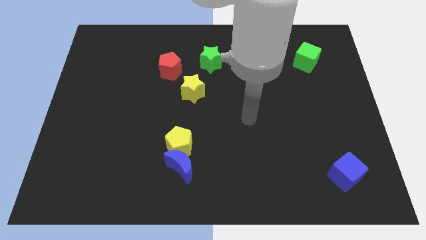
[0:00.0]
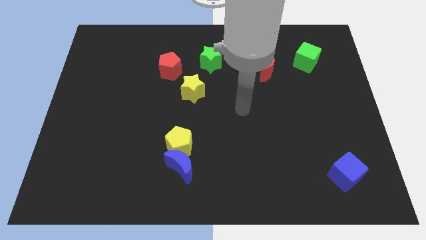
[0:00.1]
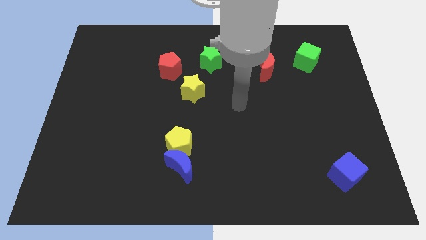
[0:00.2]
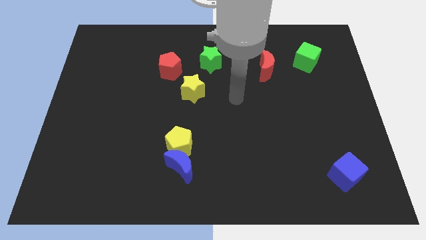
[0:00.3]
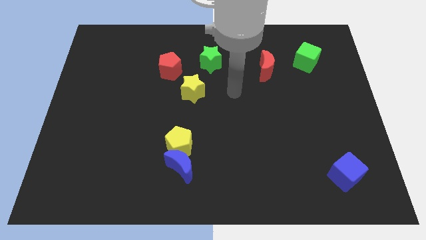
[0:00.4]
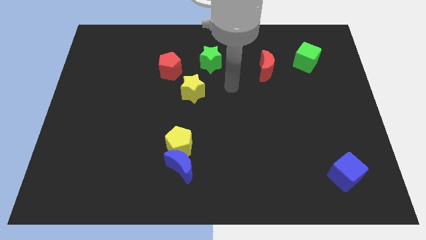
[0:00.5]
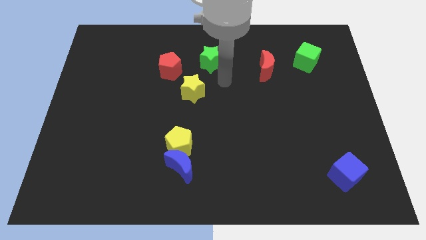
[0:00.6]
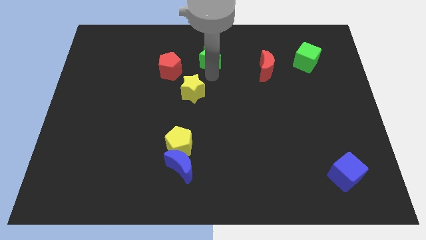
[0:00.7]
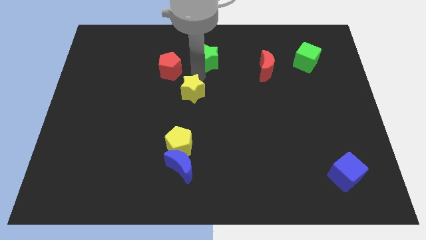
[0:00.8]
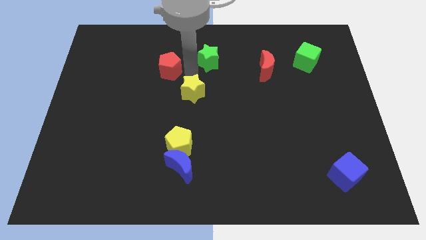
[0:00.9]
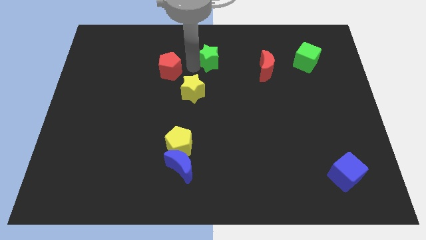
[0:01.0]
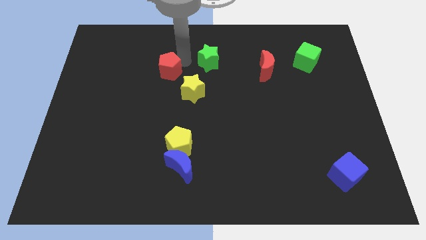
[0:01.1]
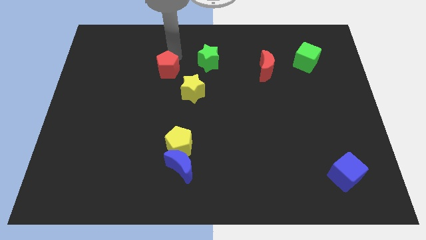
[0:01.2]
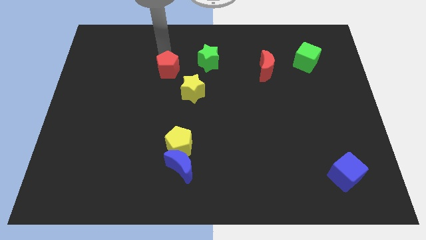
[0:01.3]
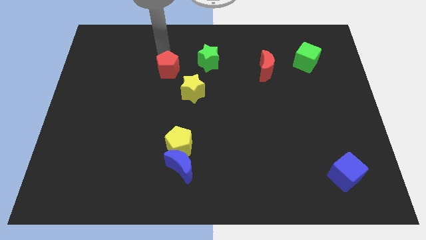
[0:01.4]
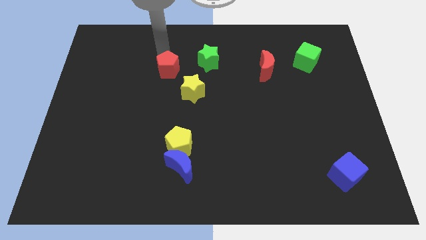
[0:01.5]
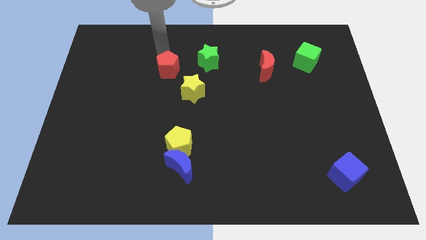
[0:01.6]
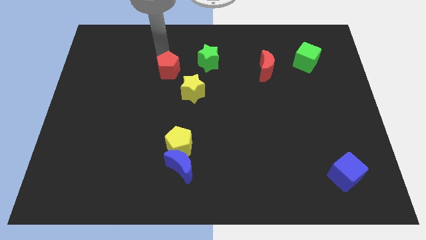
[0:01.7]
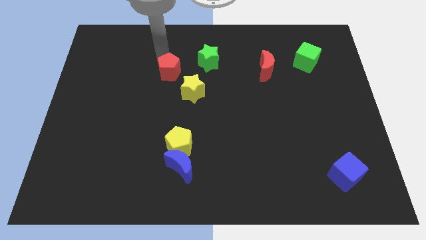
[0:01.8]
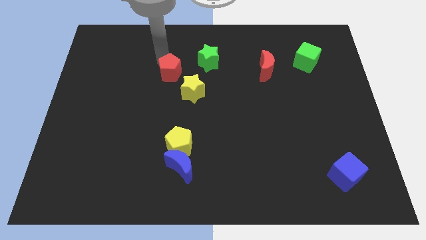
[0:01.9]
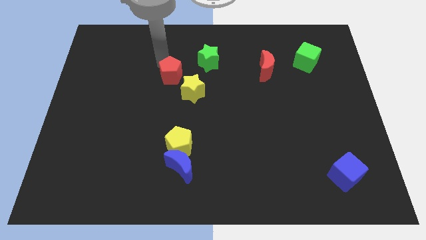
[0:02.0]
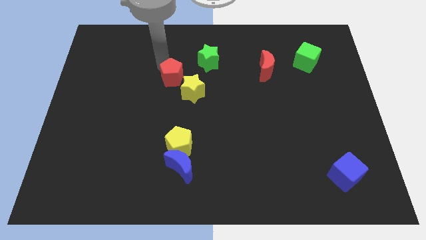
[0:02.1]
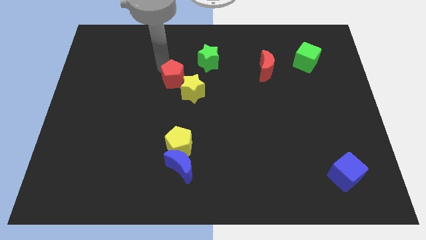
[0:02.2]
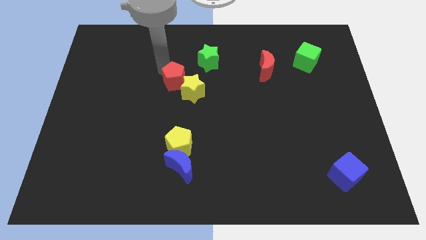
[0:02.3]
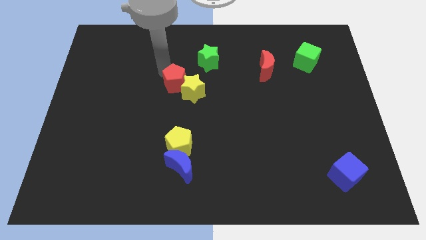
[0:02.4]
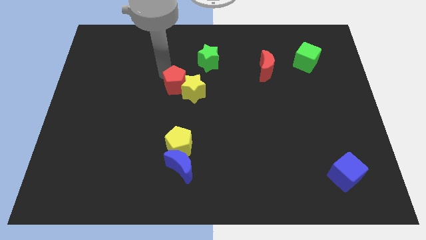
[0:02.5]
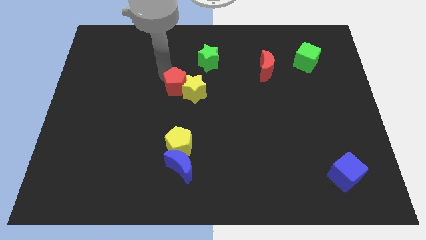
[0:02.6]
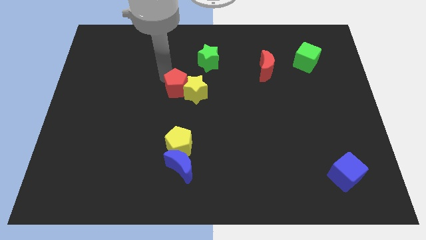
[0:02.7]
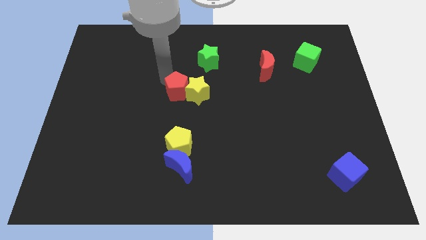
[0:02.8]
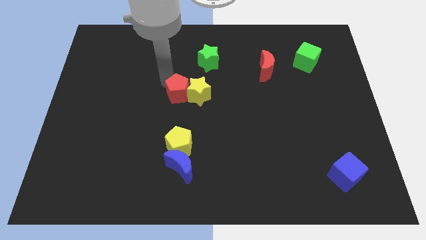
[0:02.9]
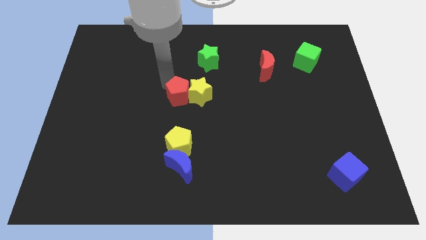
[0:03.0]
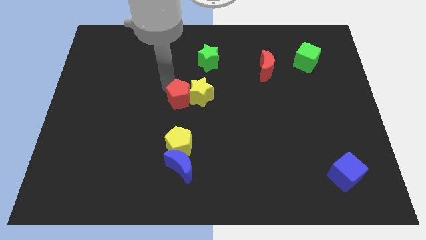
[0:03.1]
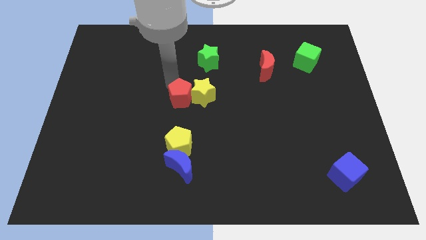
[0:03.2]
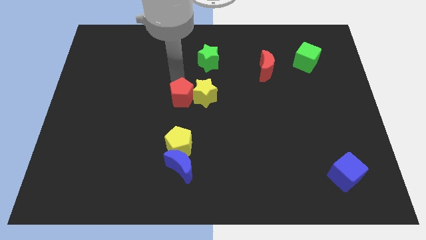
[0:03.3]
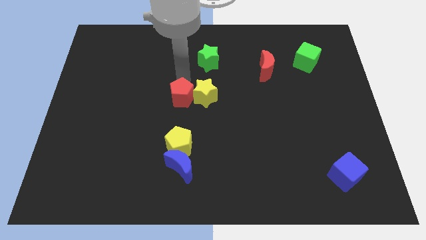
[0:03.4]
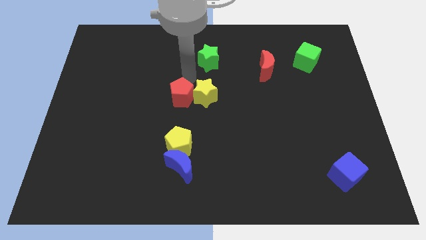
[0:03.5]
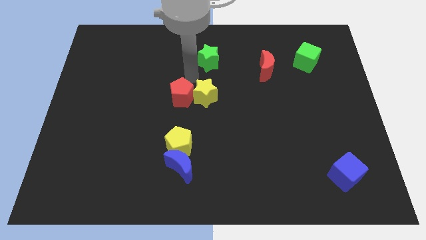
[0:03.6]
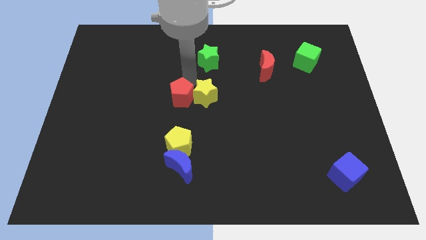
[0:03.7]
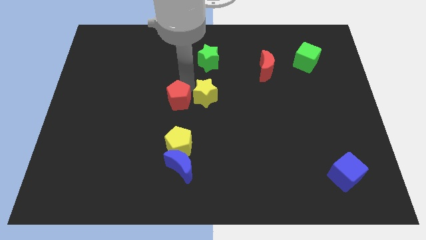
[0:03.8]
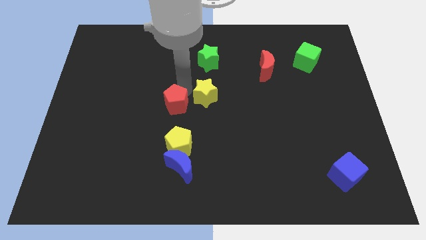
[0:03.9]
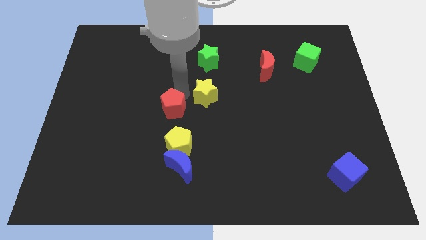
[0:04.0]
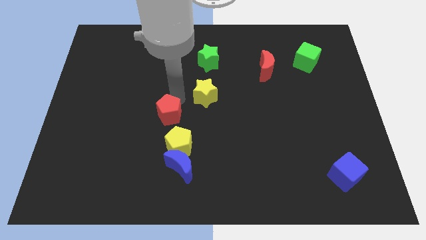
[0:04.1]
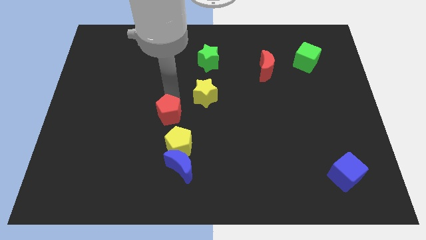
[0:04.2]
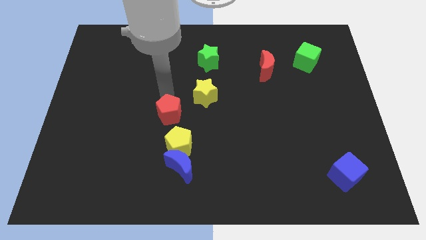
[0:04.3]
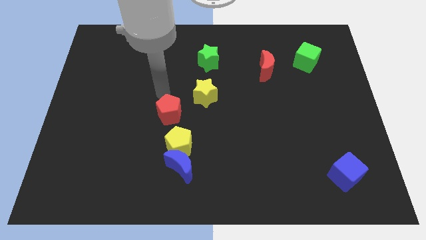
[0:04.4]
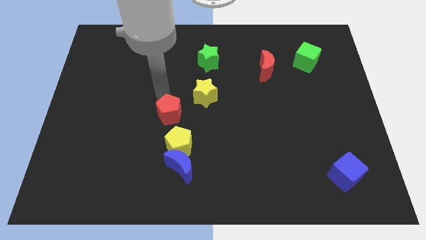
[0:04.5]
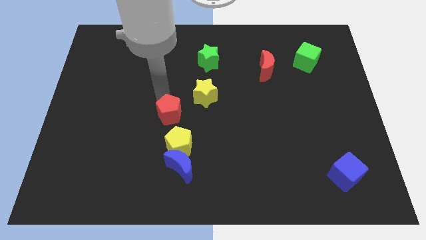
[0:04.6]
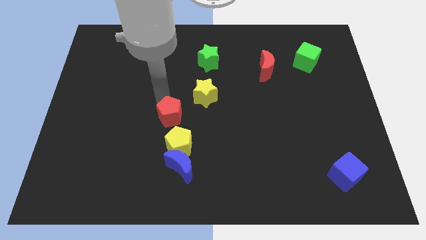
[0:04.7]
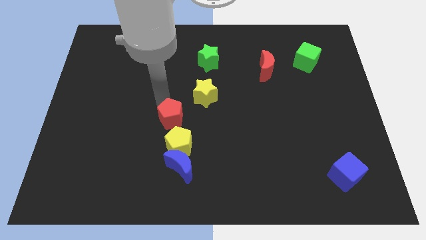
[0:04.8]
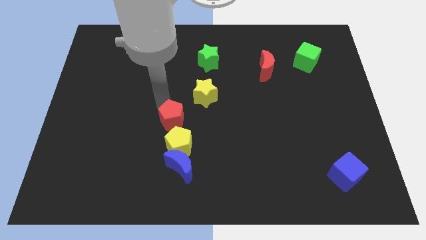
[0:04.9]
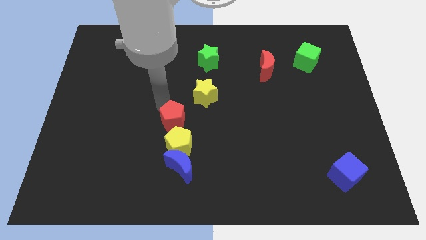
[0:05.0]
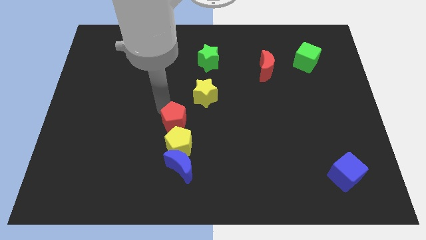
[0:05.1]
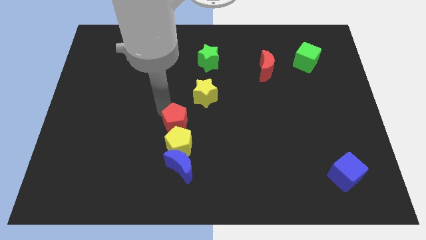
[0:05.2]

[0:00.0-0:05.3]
push the red pentagon to the yellow pentagon

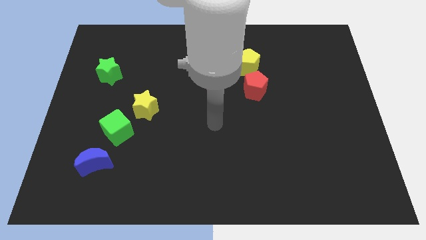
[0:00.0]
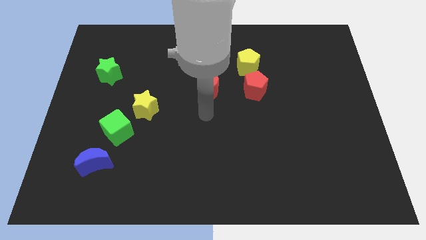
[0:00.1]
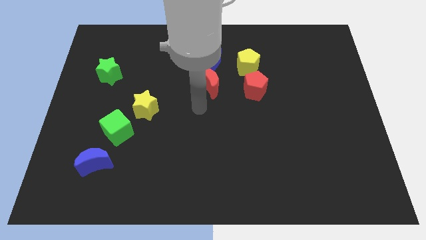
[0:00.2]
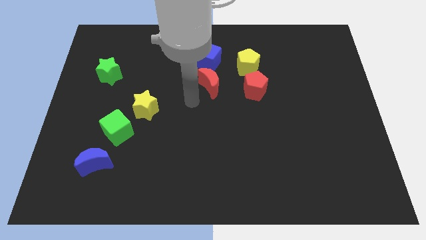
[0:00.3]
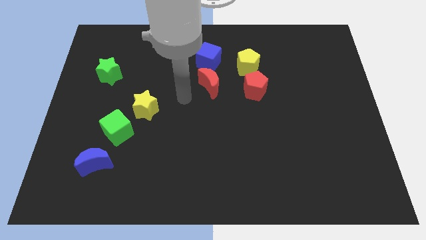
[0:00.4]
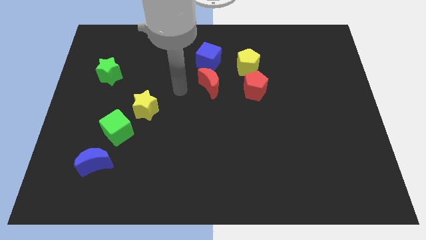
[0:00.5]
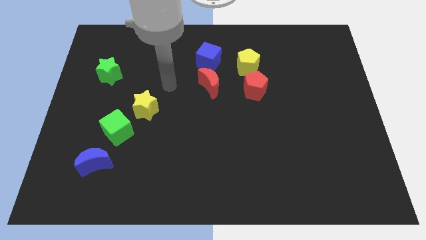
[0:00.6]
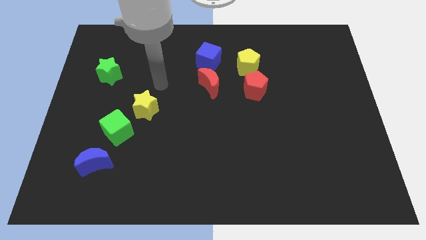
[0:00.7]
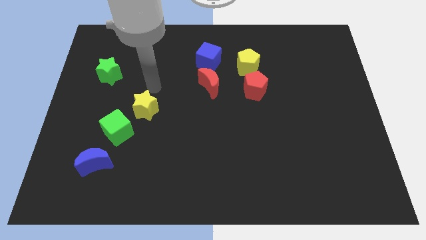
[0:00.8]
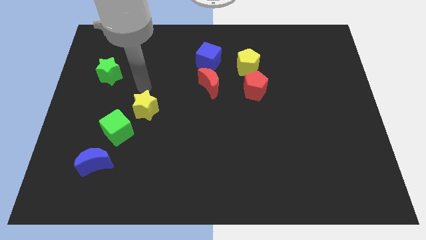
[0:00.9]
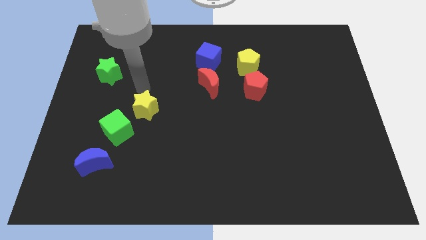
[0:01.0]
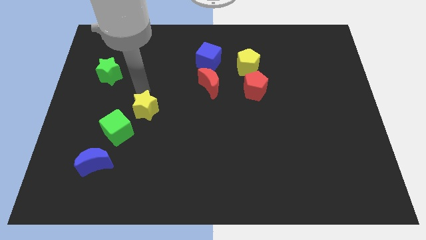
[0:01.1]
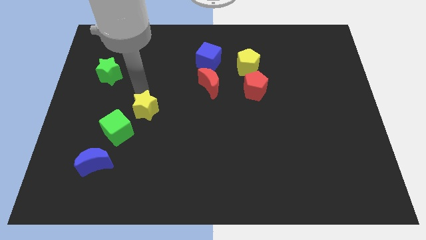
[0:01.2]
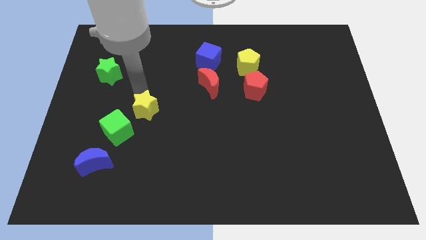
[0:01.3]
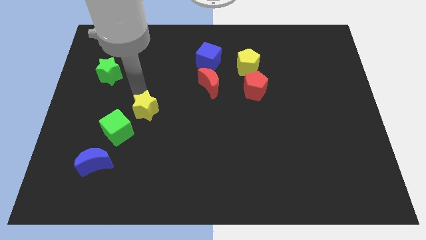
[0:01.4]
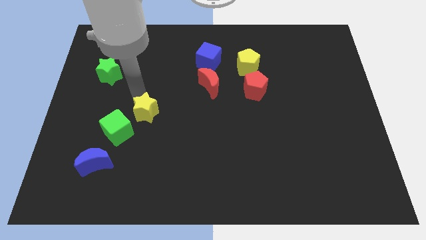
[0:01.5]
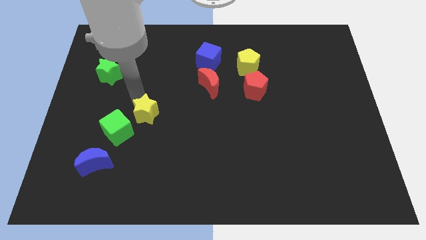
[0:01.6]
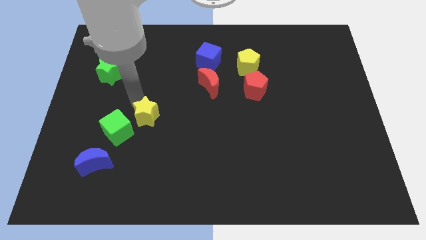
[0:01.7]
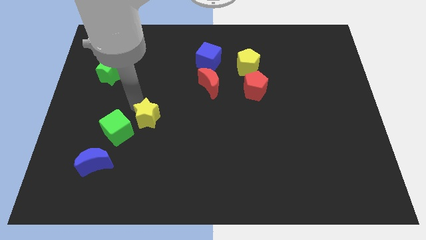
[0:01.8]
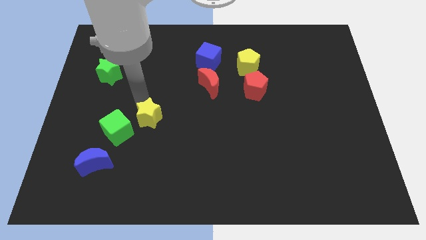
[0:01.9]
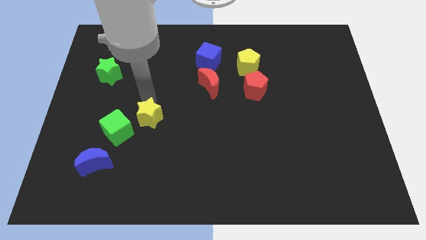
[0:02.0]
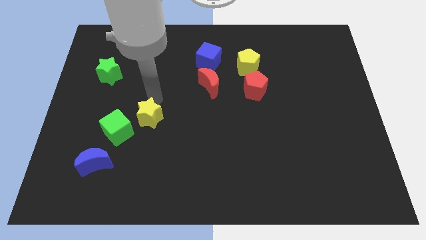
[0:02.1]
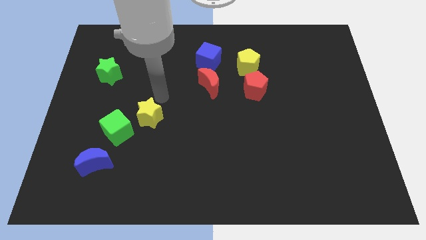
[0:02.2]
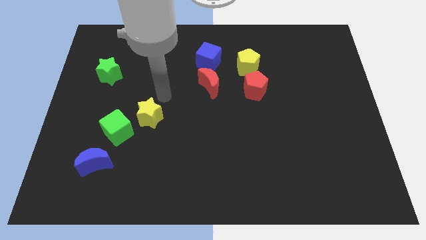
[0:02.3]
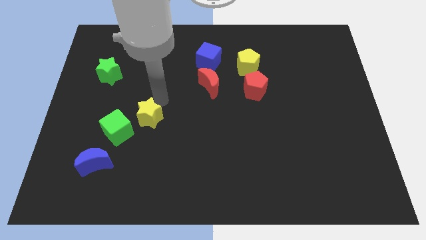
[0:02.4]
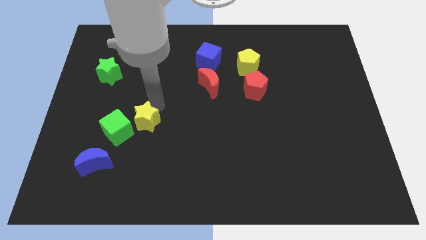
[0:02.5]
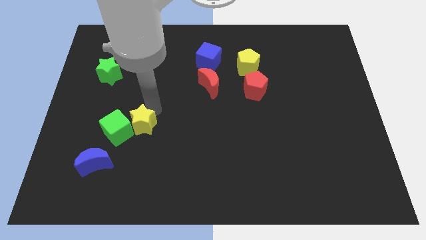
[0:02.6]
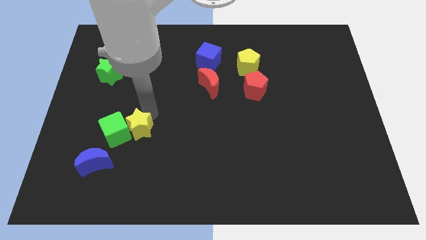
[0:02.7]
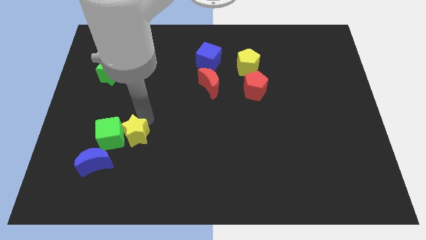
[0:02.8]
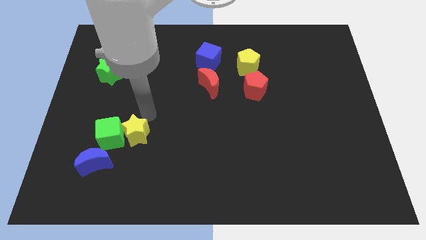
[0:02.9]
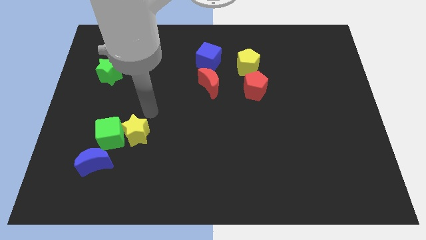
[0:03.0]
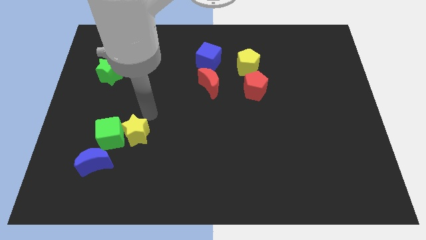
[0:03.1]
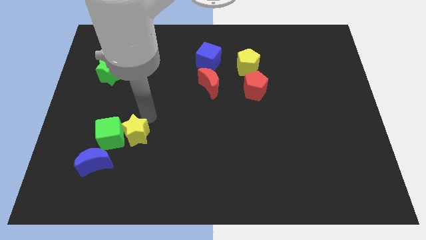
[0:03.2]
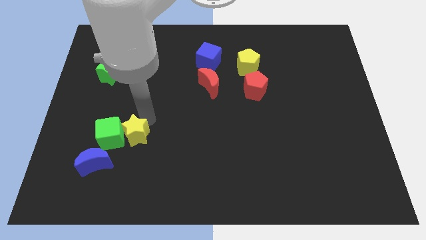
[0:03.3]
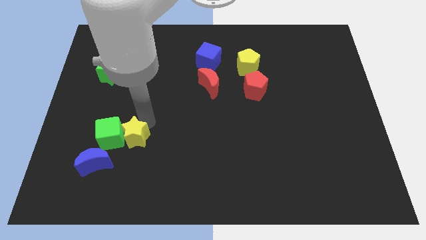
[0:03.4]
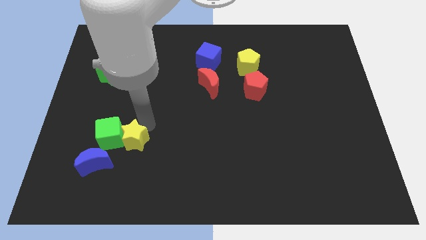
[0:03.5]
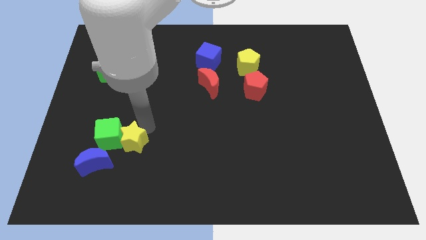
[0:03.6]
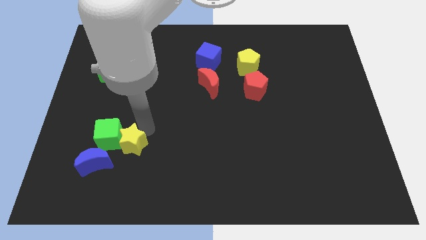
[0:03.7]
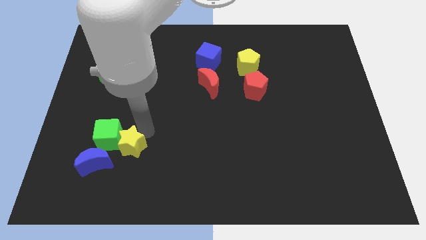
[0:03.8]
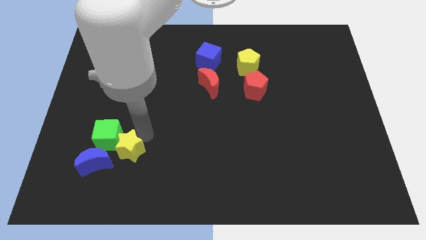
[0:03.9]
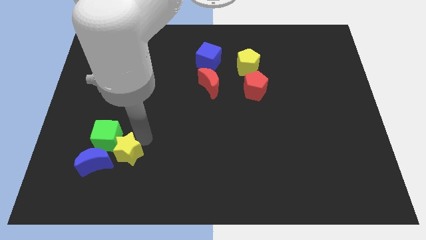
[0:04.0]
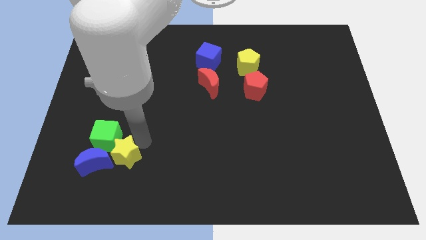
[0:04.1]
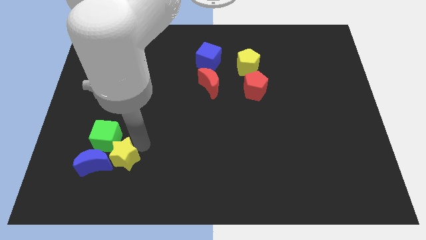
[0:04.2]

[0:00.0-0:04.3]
slide the yellow star next to the blue moon
